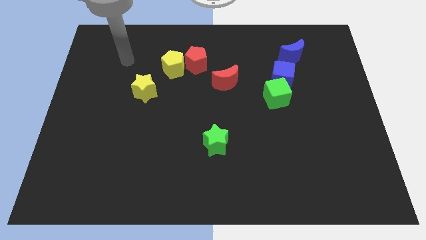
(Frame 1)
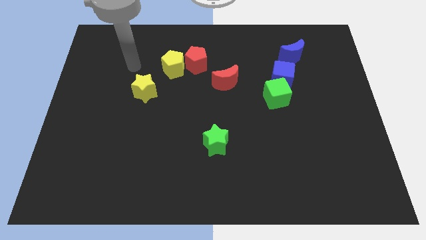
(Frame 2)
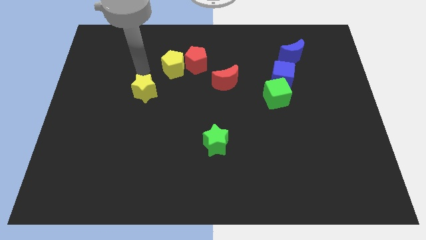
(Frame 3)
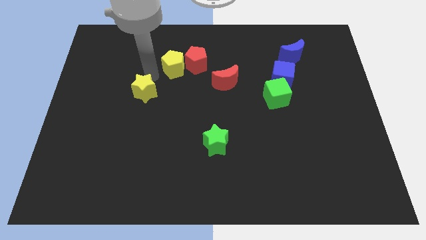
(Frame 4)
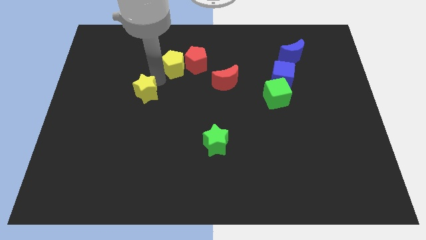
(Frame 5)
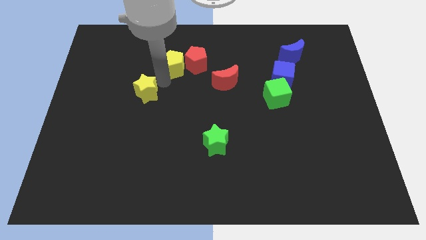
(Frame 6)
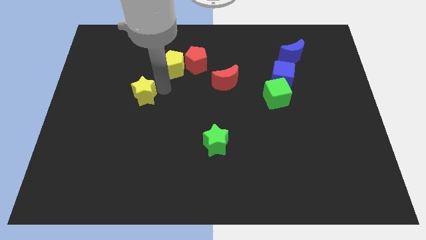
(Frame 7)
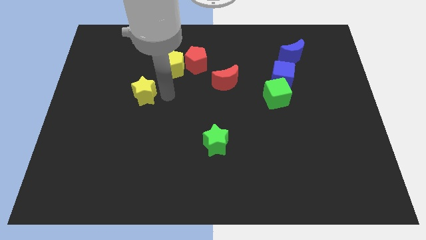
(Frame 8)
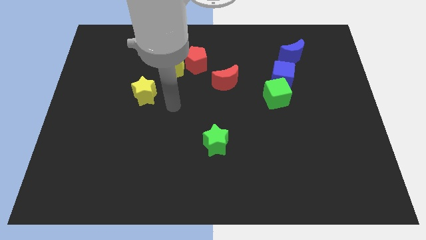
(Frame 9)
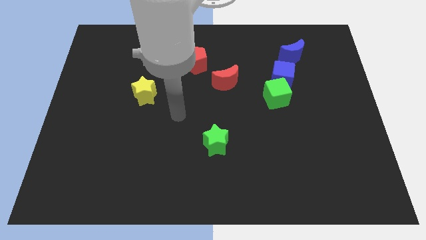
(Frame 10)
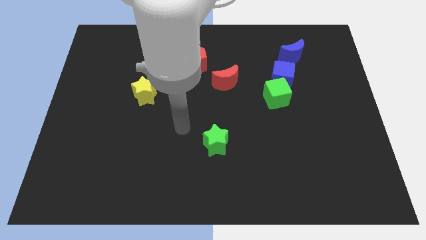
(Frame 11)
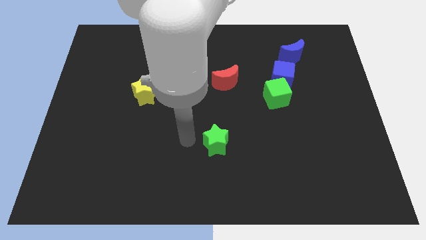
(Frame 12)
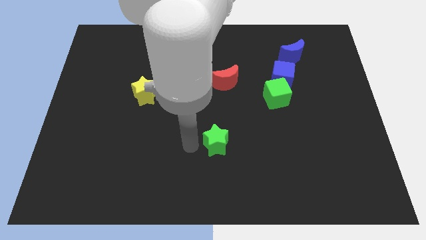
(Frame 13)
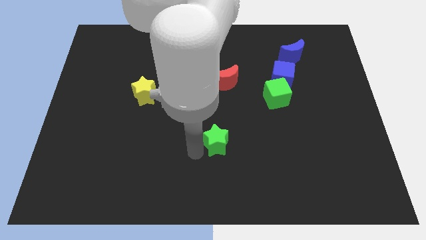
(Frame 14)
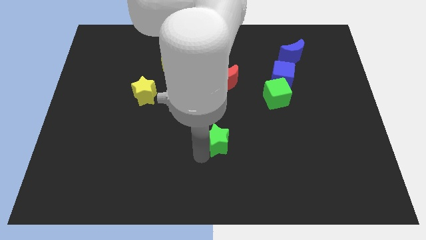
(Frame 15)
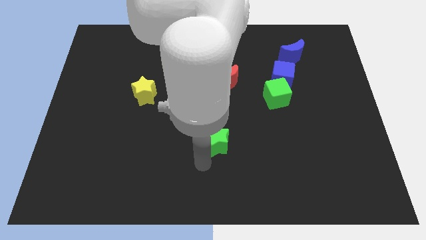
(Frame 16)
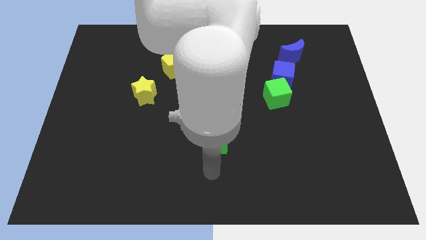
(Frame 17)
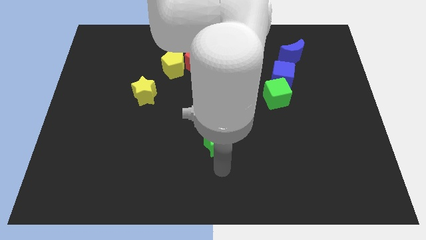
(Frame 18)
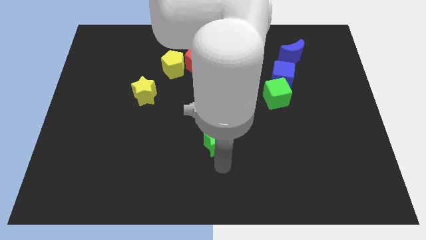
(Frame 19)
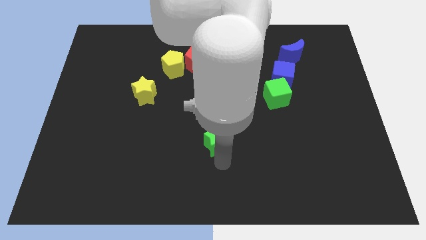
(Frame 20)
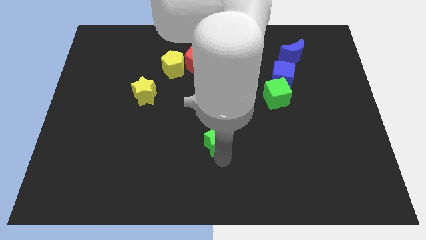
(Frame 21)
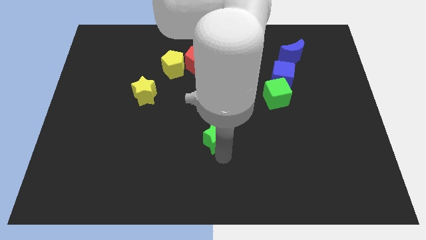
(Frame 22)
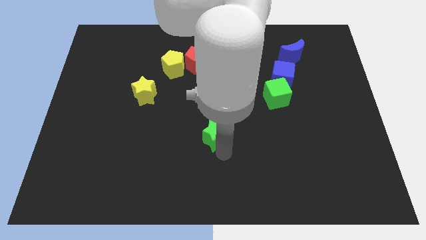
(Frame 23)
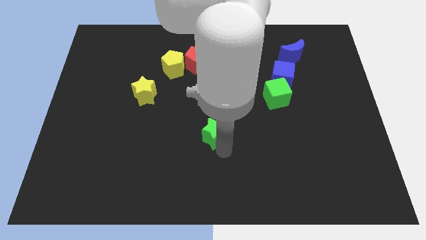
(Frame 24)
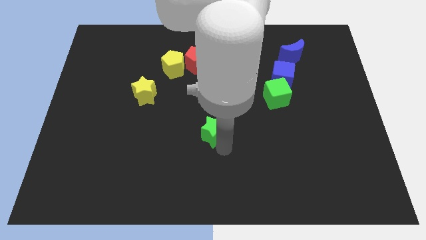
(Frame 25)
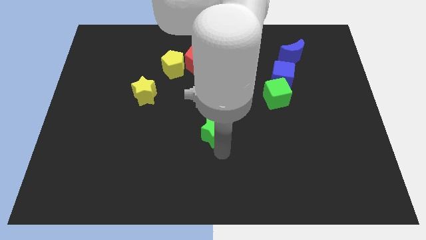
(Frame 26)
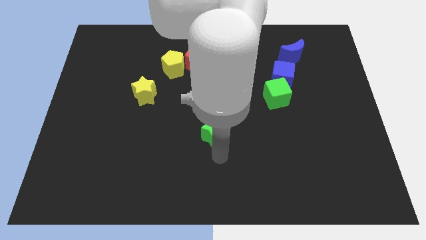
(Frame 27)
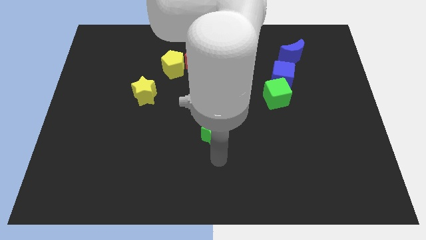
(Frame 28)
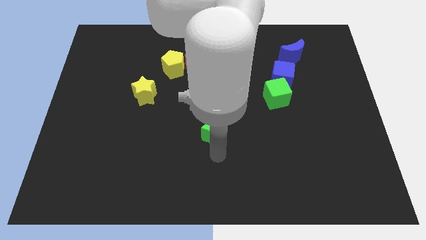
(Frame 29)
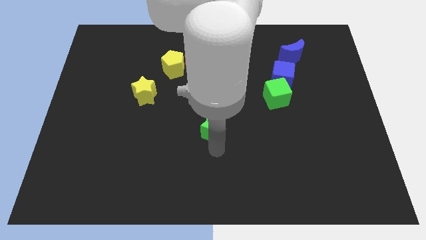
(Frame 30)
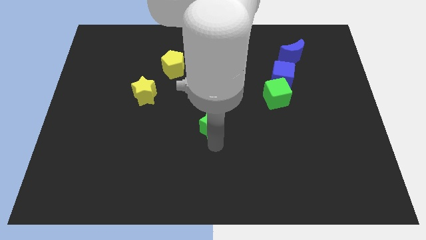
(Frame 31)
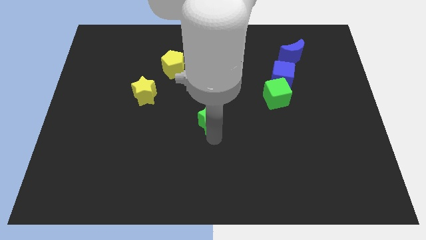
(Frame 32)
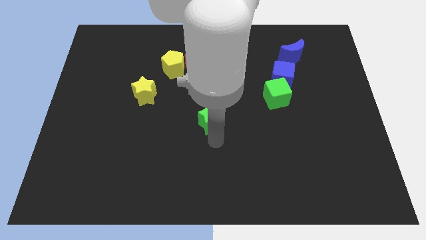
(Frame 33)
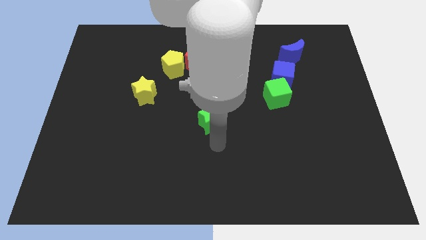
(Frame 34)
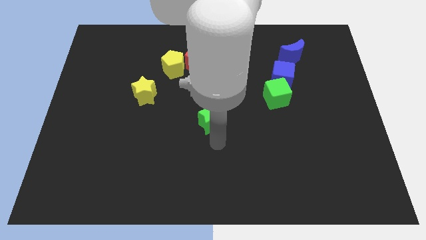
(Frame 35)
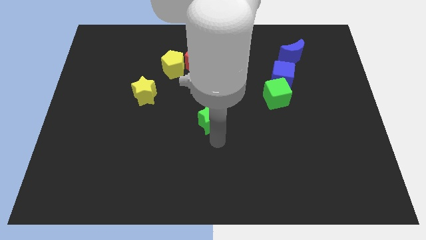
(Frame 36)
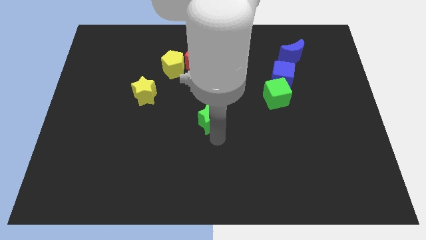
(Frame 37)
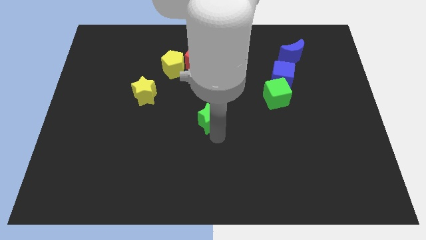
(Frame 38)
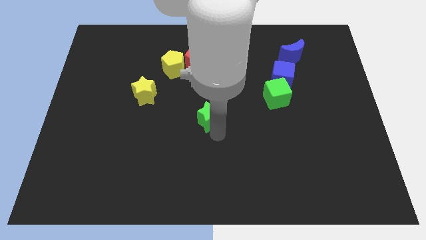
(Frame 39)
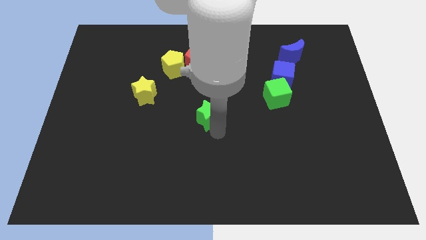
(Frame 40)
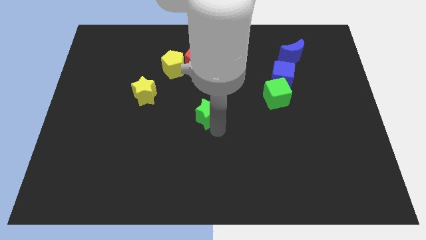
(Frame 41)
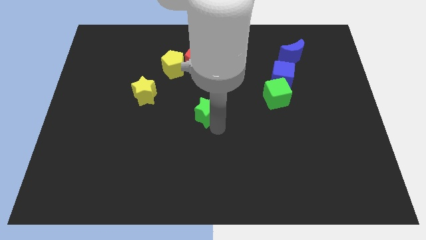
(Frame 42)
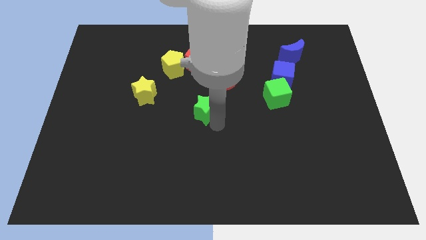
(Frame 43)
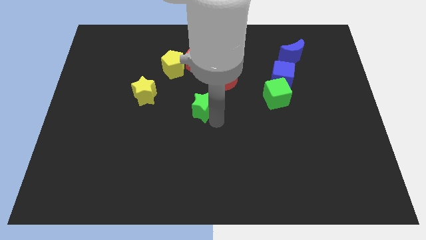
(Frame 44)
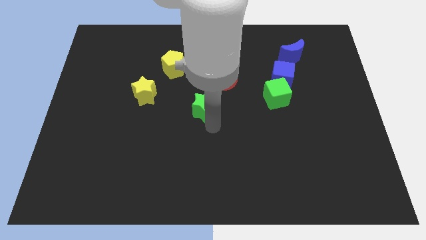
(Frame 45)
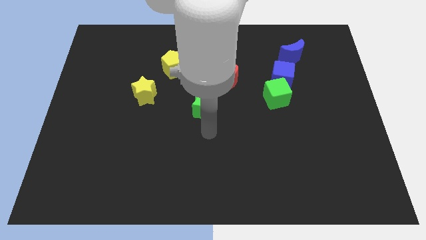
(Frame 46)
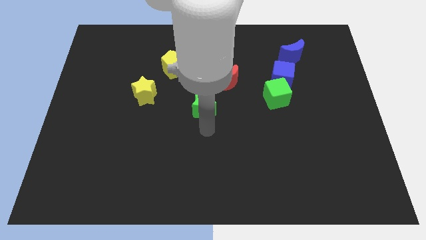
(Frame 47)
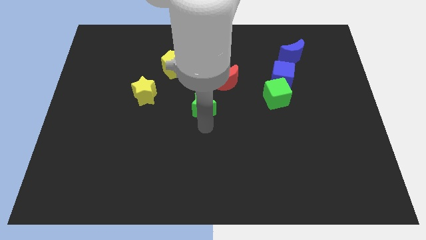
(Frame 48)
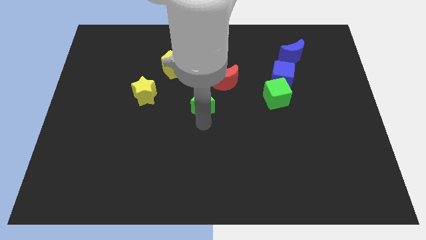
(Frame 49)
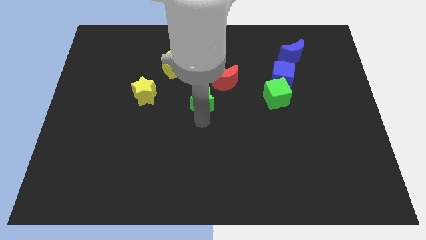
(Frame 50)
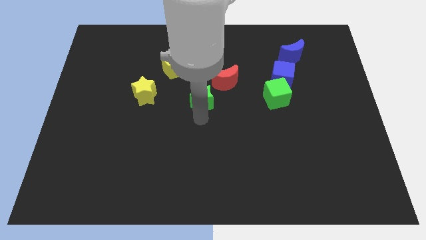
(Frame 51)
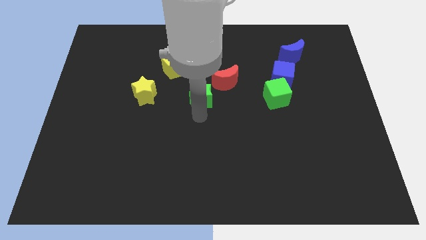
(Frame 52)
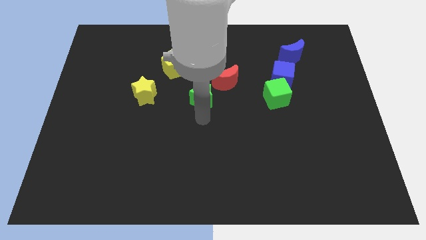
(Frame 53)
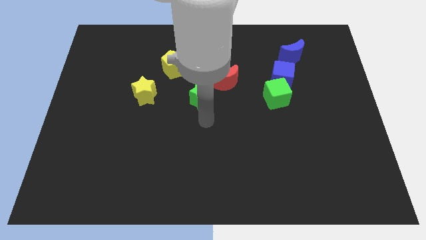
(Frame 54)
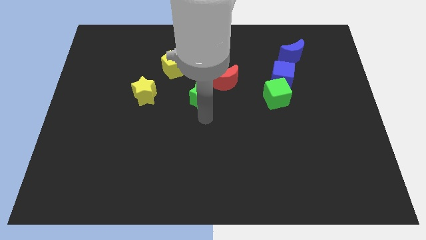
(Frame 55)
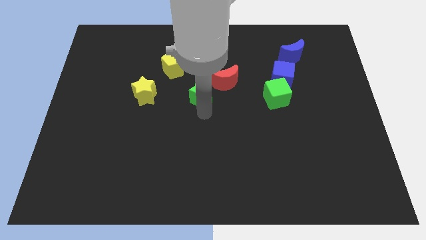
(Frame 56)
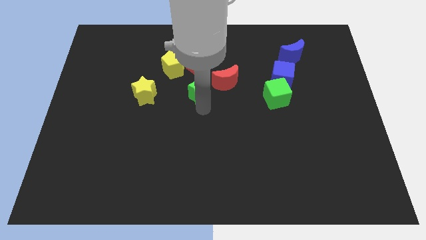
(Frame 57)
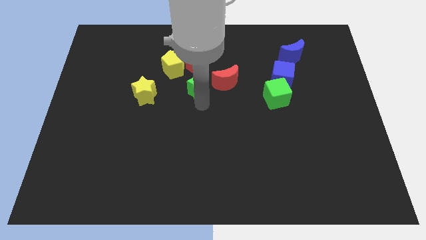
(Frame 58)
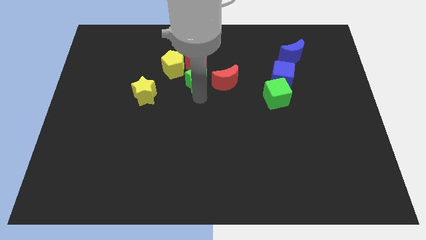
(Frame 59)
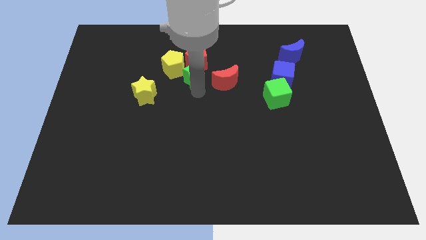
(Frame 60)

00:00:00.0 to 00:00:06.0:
slide the green star next to the red pentagon

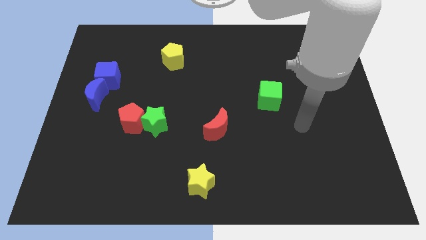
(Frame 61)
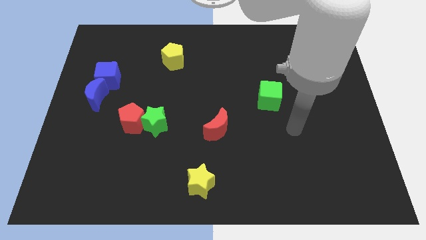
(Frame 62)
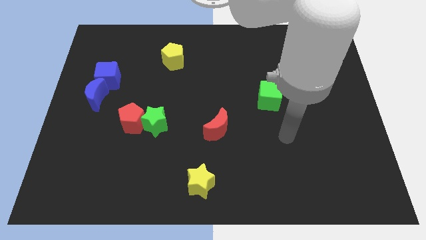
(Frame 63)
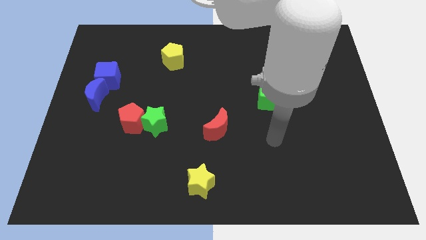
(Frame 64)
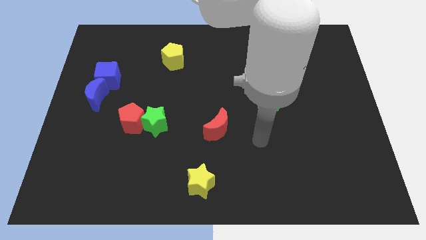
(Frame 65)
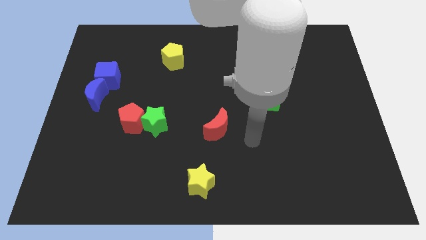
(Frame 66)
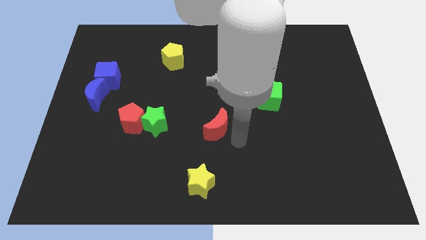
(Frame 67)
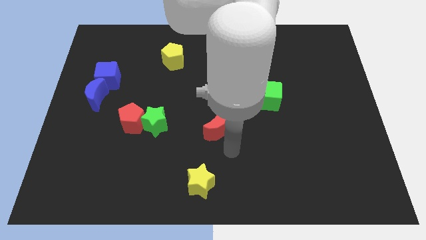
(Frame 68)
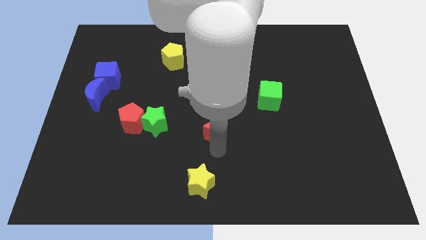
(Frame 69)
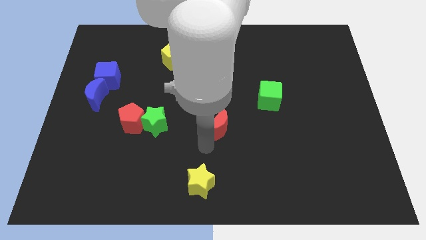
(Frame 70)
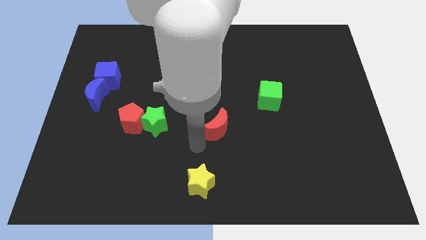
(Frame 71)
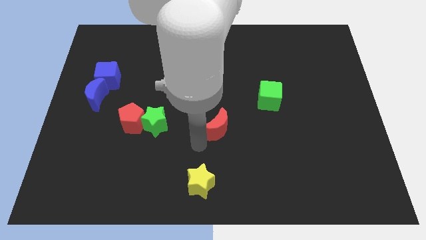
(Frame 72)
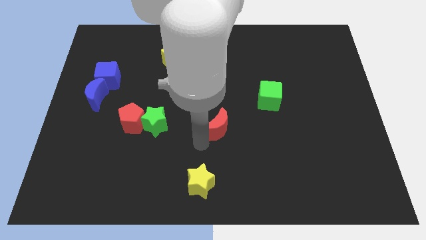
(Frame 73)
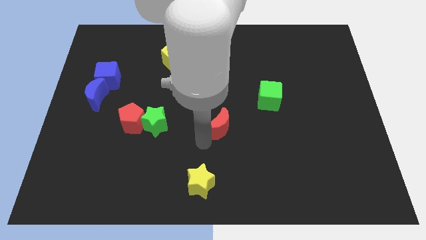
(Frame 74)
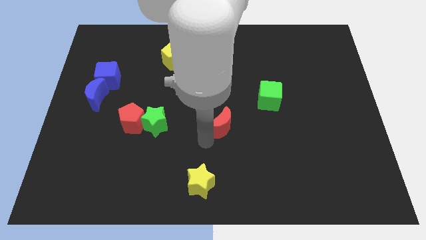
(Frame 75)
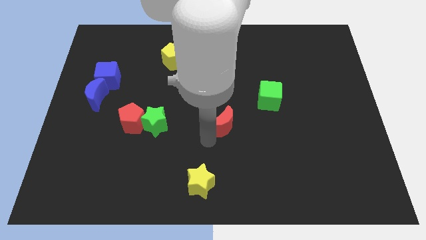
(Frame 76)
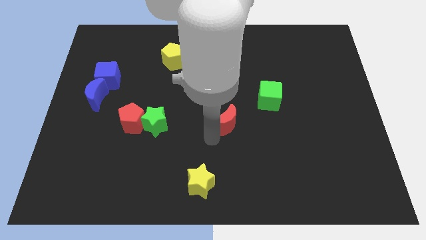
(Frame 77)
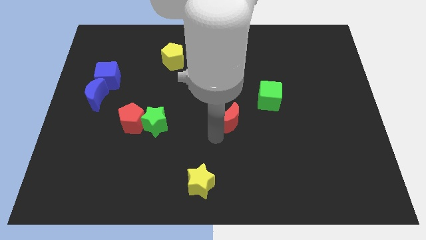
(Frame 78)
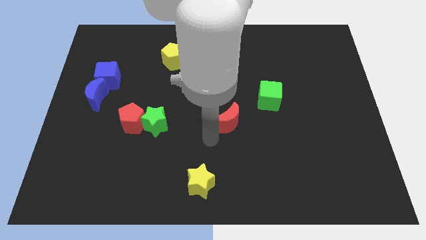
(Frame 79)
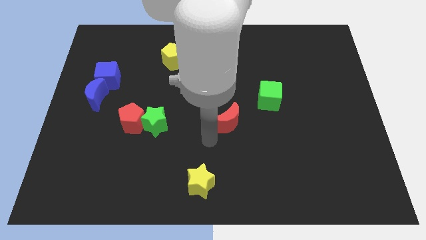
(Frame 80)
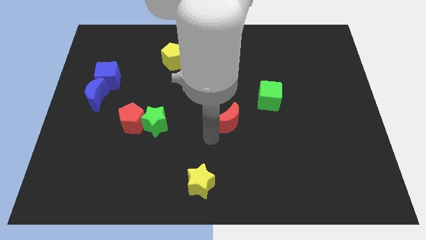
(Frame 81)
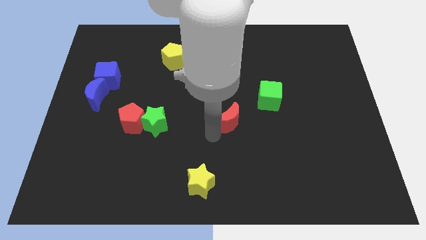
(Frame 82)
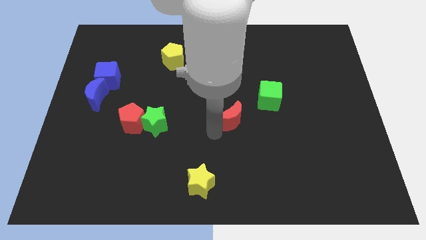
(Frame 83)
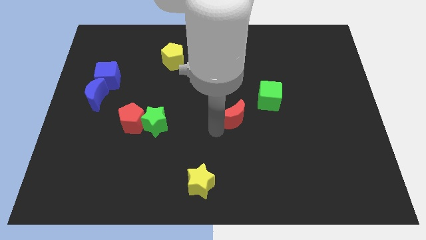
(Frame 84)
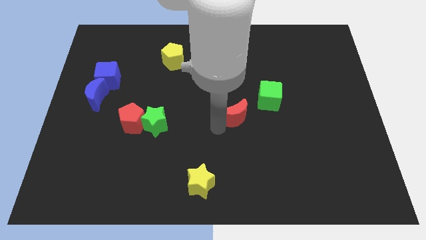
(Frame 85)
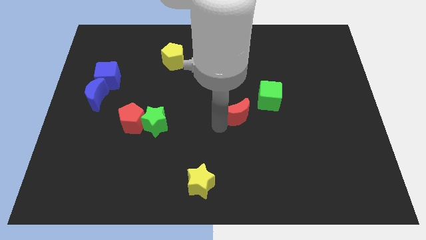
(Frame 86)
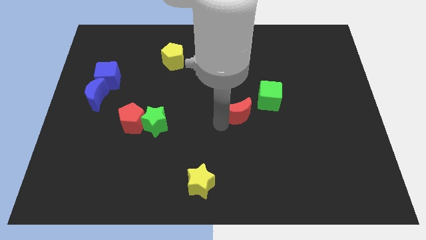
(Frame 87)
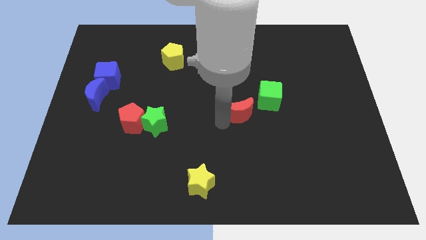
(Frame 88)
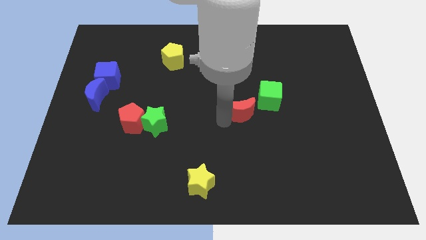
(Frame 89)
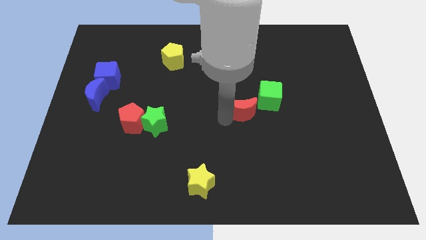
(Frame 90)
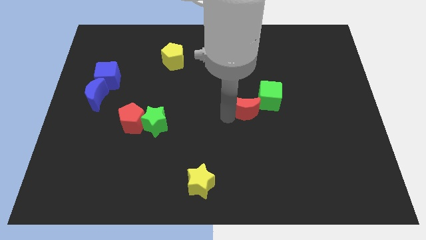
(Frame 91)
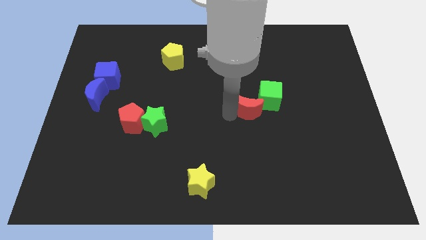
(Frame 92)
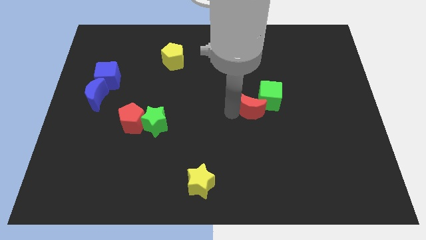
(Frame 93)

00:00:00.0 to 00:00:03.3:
put the red moon to the green cube
